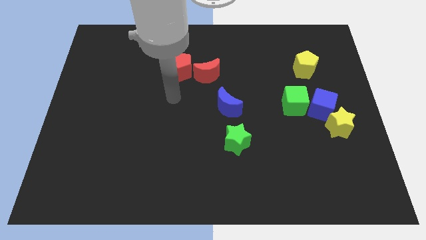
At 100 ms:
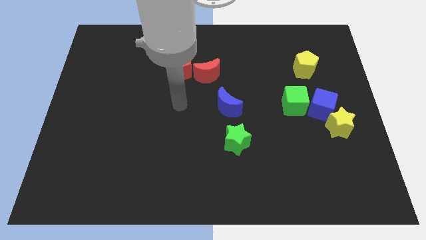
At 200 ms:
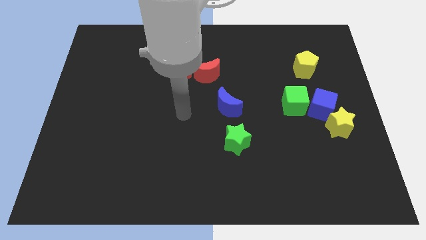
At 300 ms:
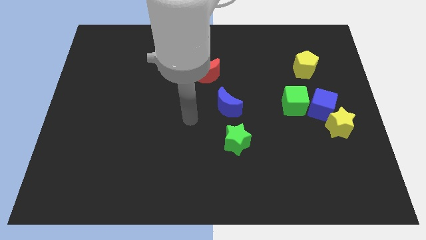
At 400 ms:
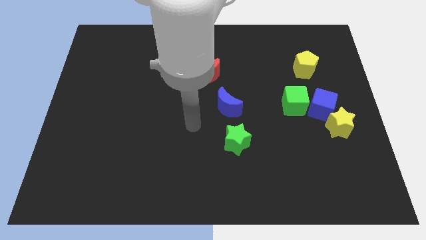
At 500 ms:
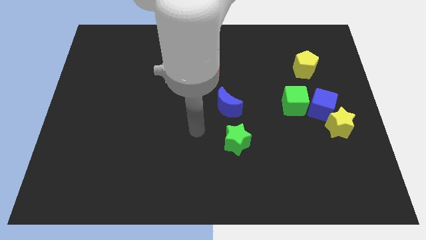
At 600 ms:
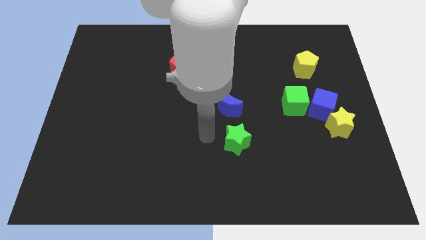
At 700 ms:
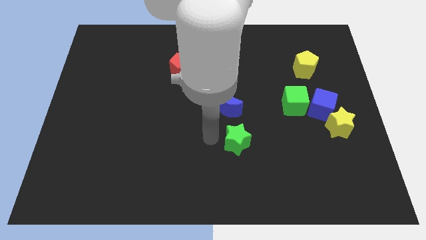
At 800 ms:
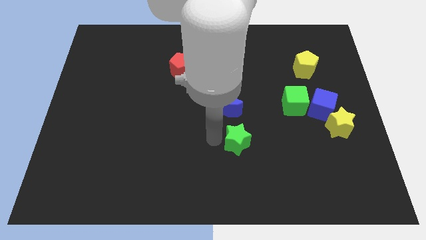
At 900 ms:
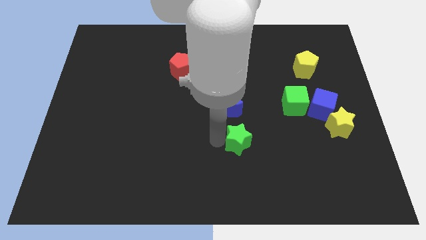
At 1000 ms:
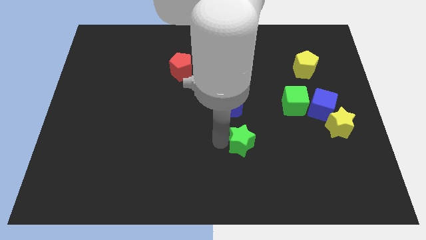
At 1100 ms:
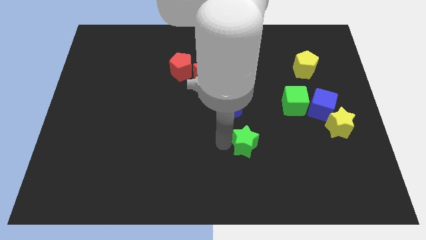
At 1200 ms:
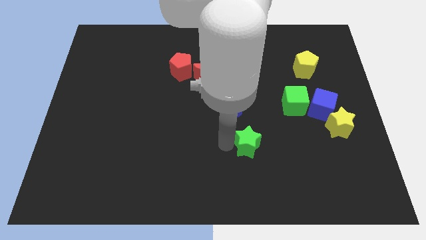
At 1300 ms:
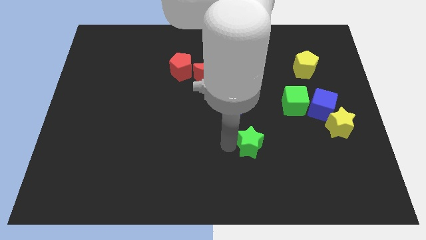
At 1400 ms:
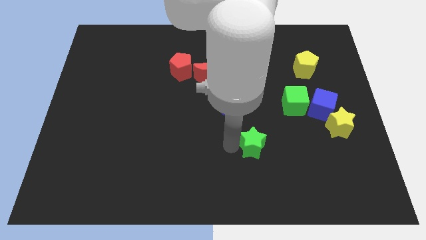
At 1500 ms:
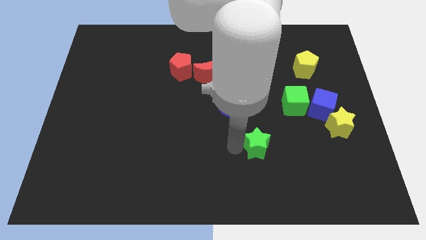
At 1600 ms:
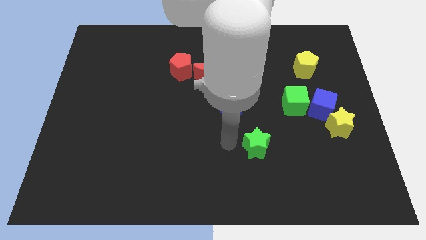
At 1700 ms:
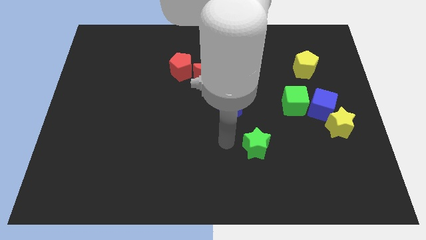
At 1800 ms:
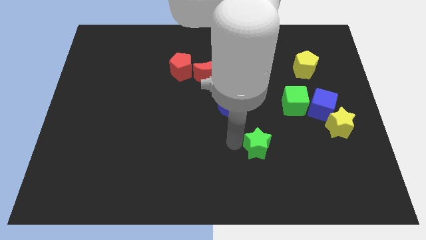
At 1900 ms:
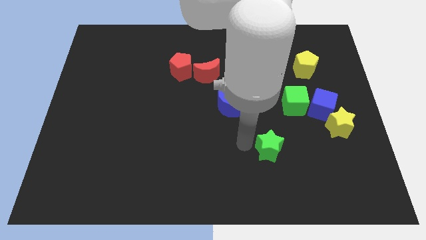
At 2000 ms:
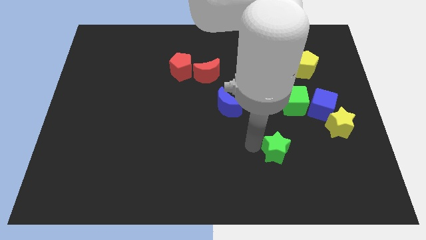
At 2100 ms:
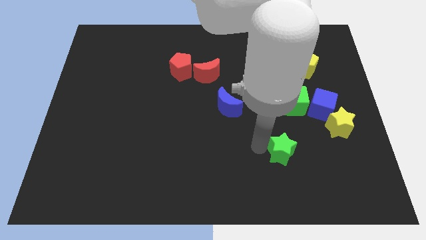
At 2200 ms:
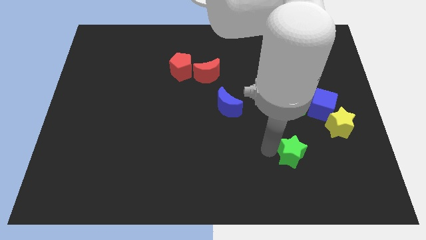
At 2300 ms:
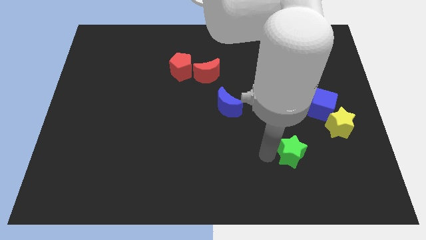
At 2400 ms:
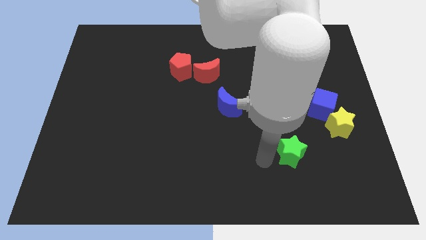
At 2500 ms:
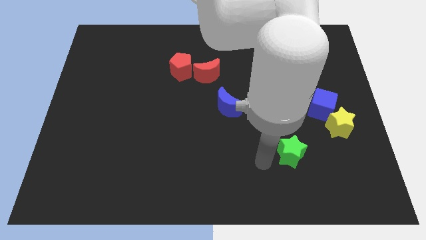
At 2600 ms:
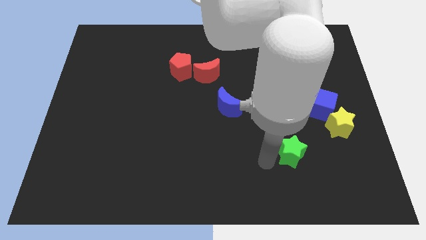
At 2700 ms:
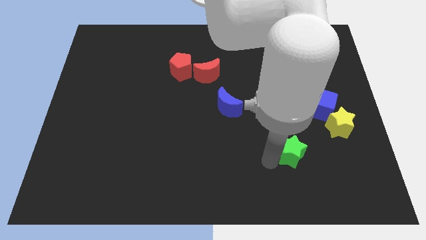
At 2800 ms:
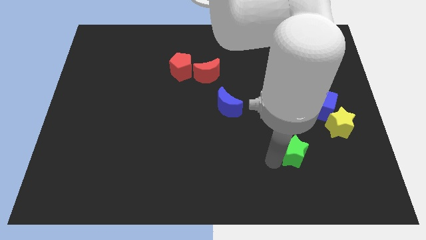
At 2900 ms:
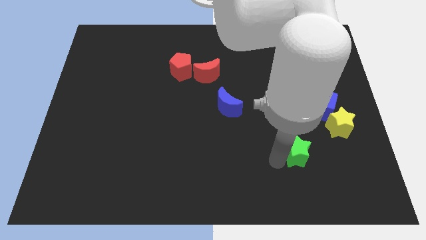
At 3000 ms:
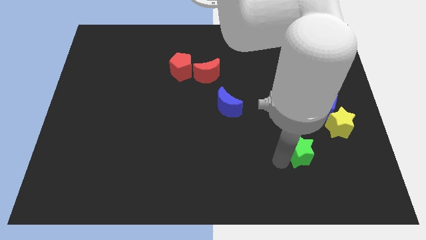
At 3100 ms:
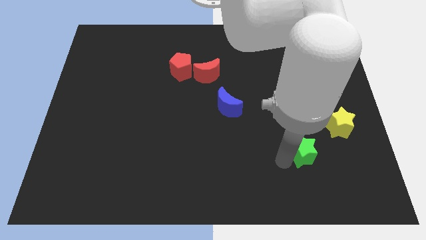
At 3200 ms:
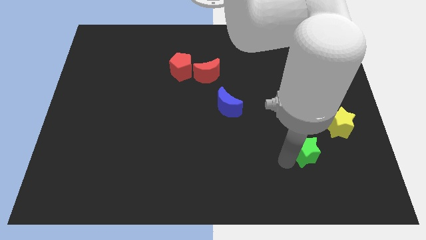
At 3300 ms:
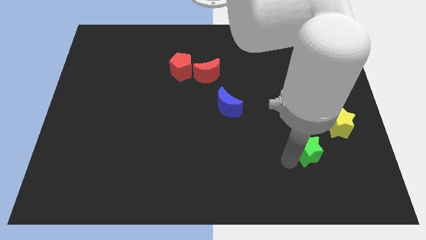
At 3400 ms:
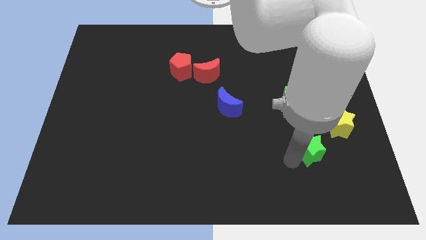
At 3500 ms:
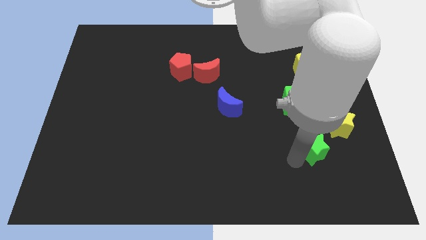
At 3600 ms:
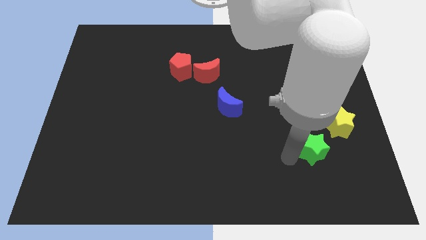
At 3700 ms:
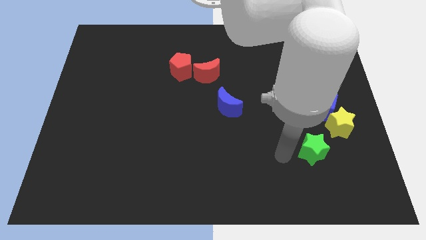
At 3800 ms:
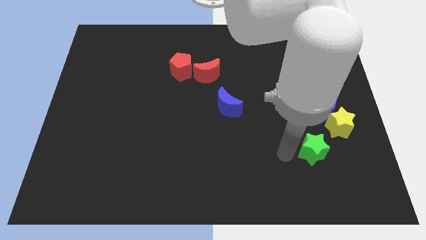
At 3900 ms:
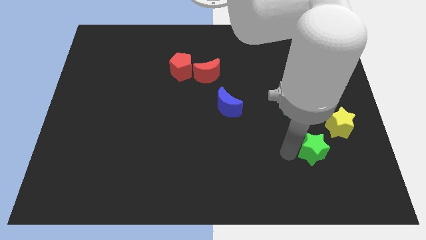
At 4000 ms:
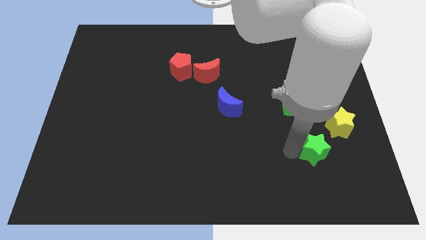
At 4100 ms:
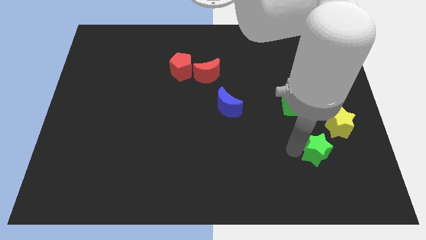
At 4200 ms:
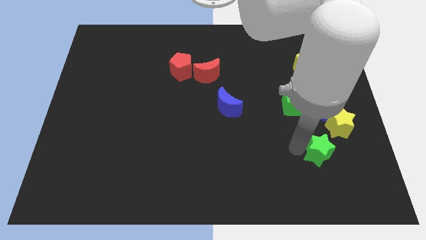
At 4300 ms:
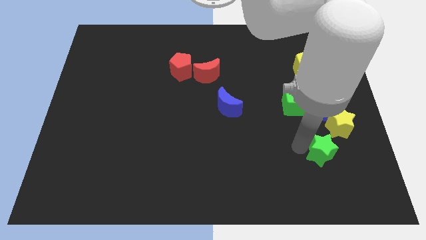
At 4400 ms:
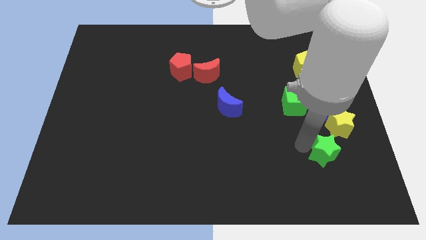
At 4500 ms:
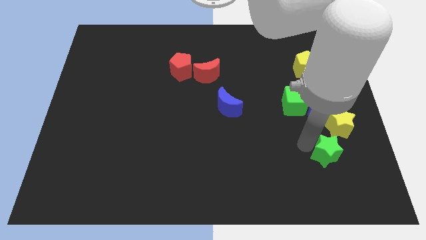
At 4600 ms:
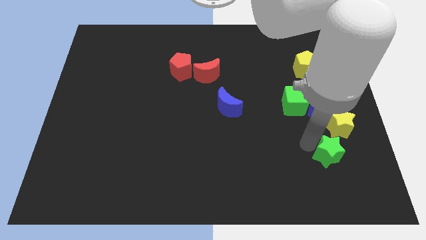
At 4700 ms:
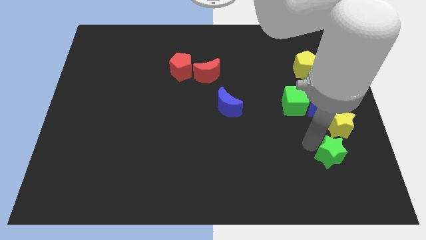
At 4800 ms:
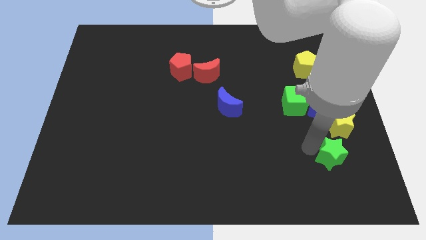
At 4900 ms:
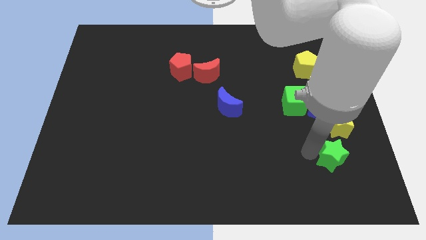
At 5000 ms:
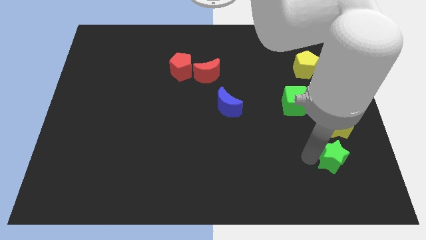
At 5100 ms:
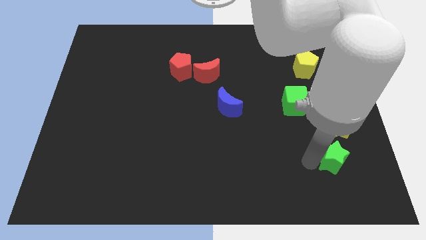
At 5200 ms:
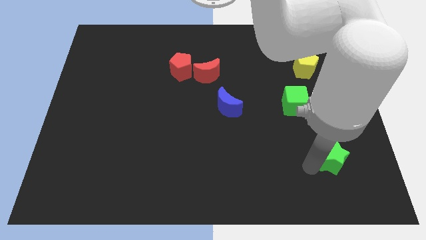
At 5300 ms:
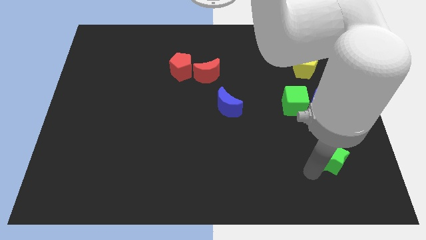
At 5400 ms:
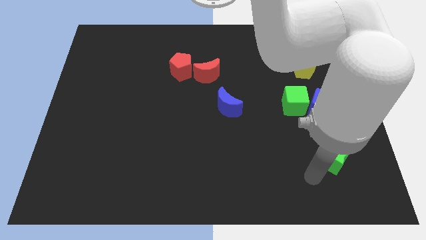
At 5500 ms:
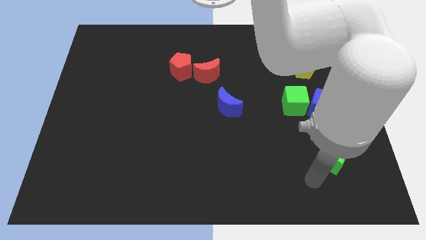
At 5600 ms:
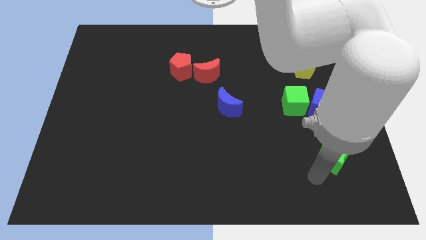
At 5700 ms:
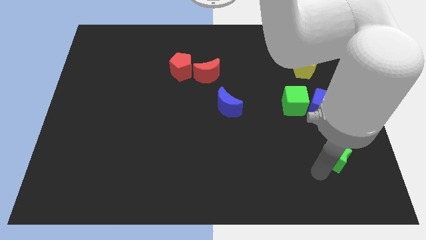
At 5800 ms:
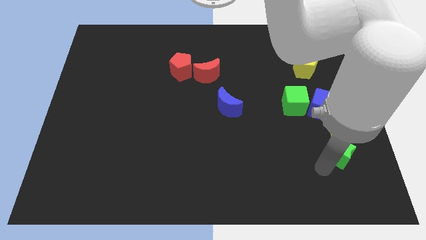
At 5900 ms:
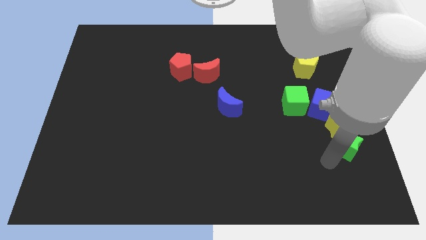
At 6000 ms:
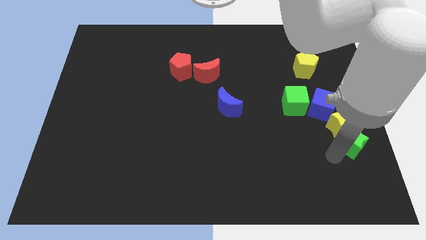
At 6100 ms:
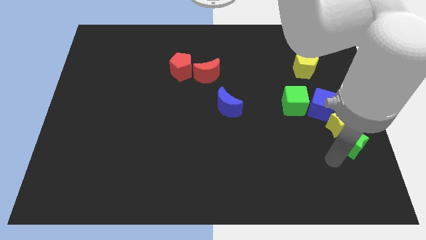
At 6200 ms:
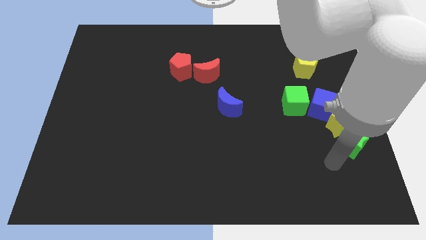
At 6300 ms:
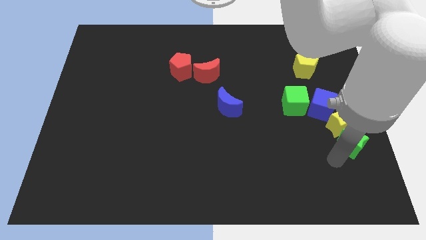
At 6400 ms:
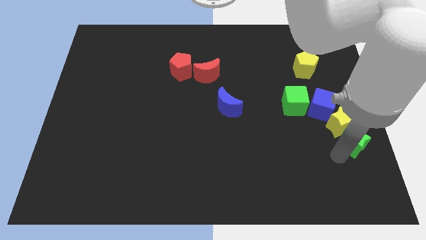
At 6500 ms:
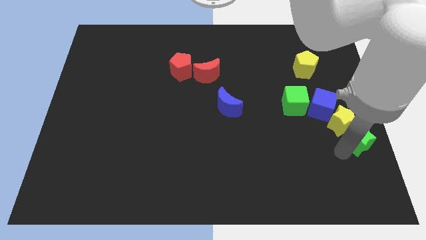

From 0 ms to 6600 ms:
put the green star to the right side

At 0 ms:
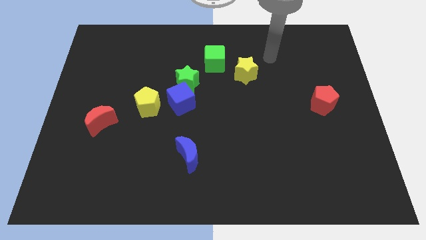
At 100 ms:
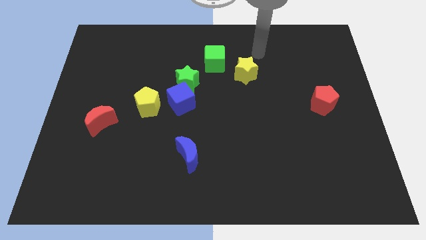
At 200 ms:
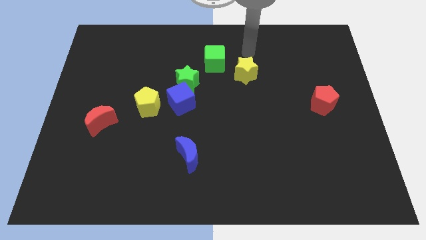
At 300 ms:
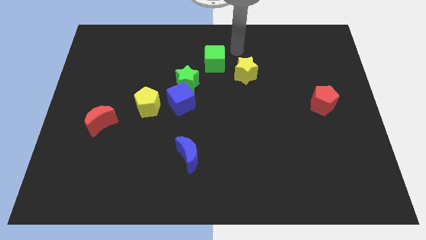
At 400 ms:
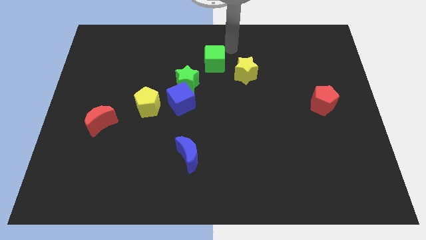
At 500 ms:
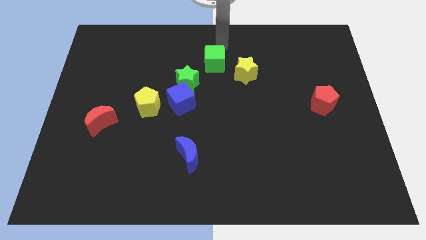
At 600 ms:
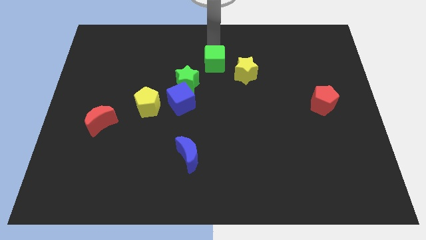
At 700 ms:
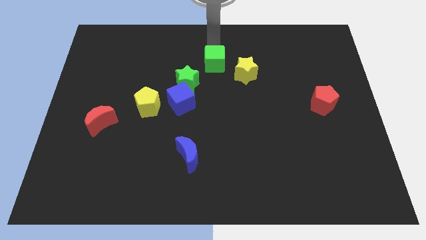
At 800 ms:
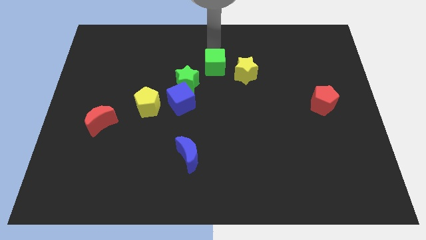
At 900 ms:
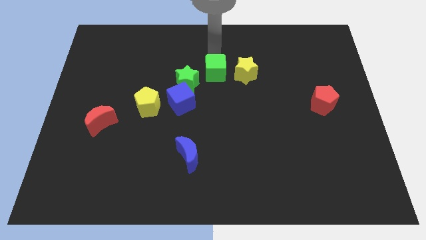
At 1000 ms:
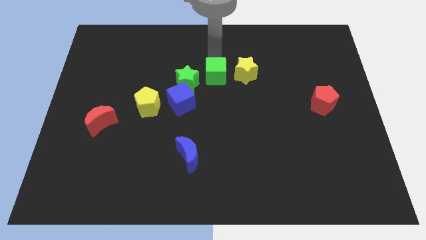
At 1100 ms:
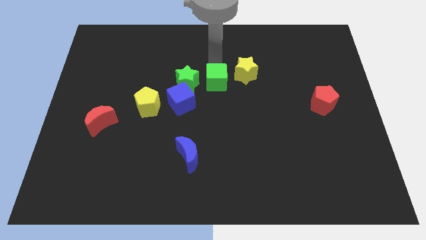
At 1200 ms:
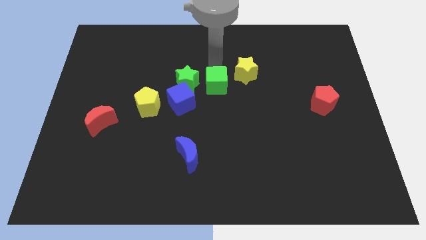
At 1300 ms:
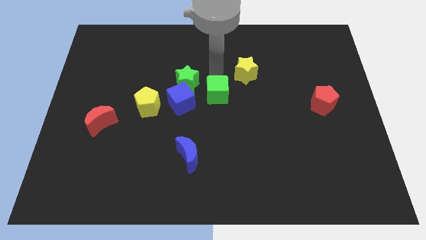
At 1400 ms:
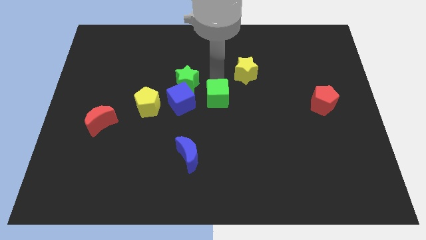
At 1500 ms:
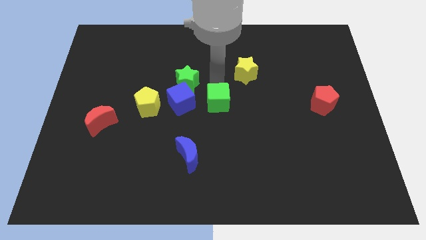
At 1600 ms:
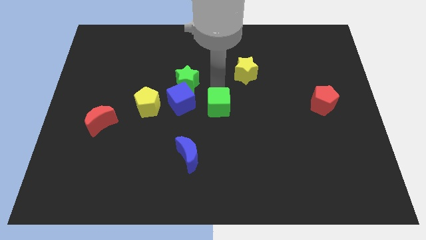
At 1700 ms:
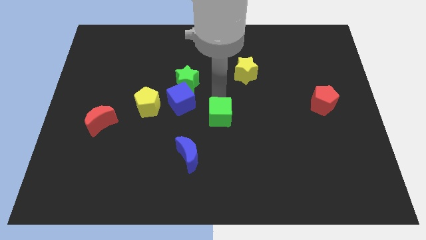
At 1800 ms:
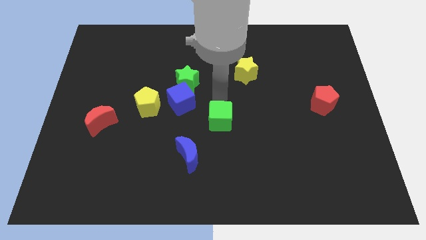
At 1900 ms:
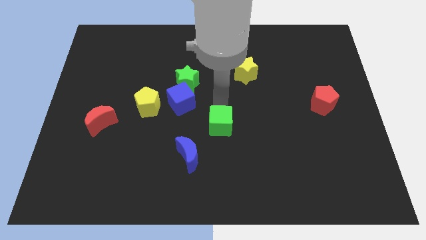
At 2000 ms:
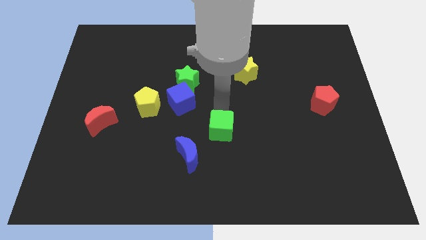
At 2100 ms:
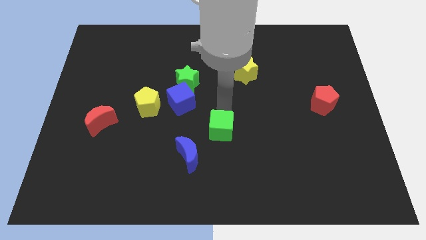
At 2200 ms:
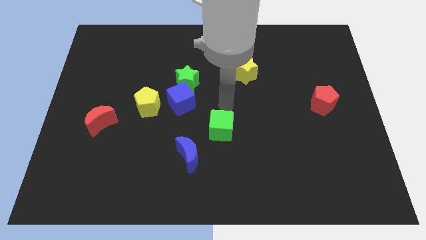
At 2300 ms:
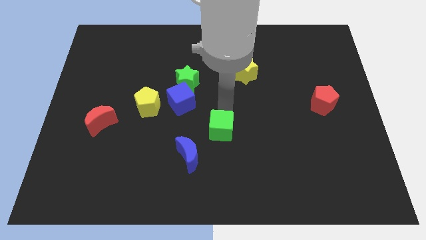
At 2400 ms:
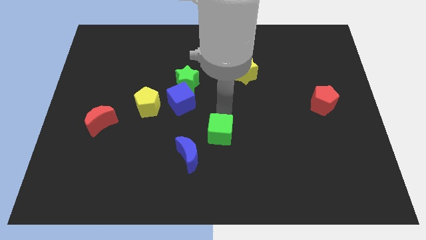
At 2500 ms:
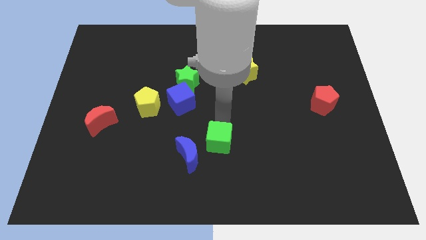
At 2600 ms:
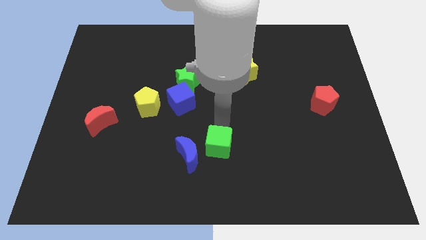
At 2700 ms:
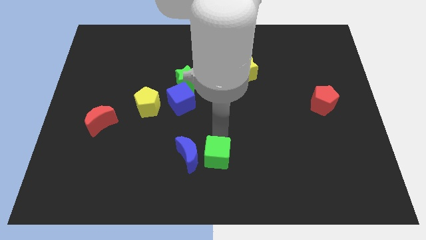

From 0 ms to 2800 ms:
move the green cube to the bottom
